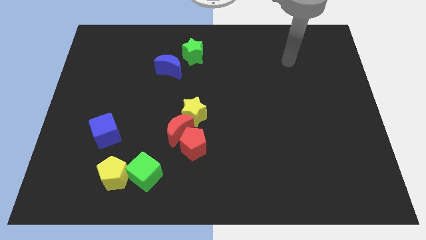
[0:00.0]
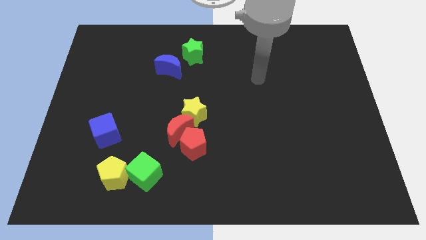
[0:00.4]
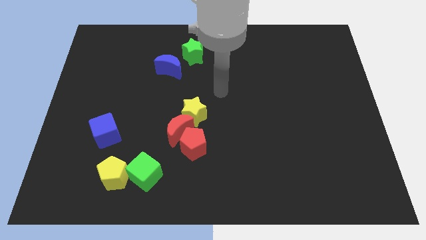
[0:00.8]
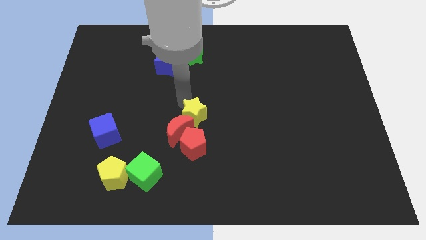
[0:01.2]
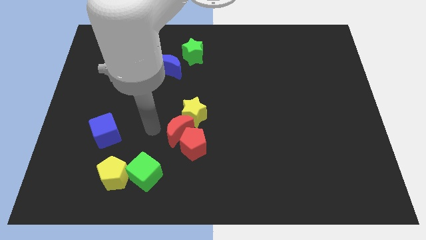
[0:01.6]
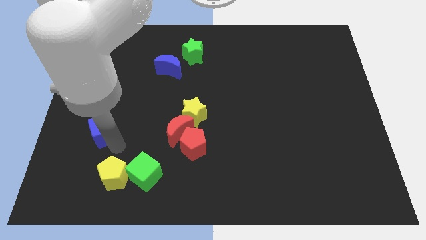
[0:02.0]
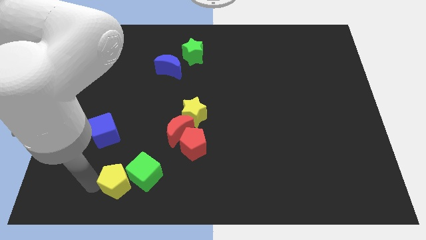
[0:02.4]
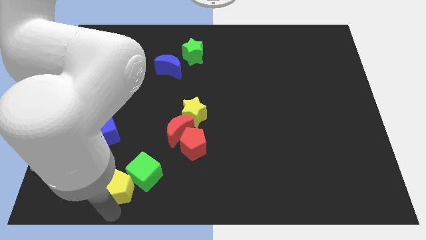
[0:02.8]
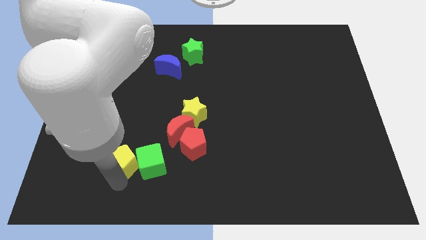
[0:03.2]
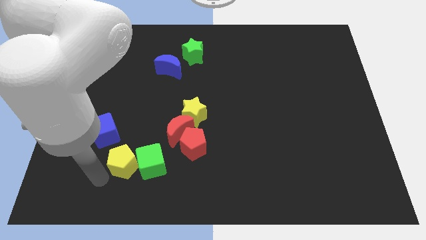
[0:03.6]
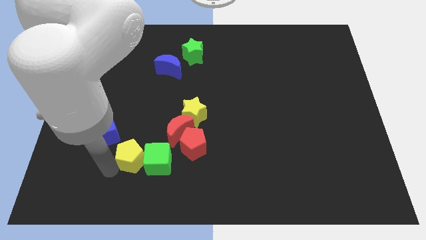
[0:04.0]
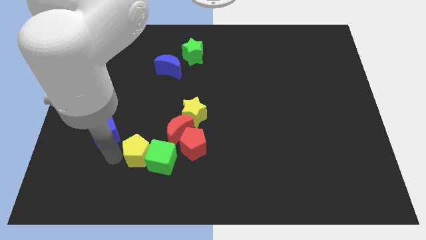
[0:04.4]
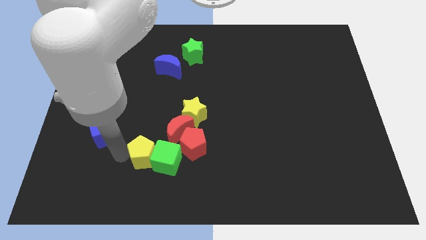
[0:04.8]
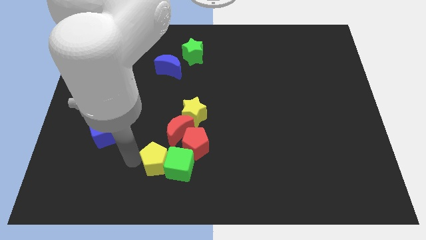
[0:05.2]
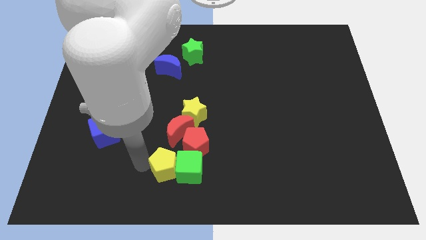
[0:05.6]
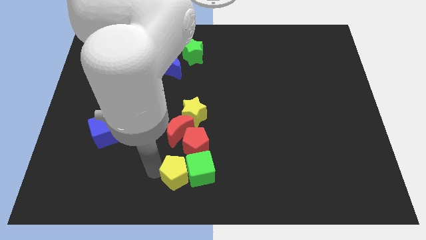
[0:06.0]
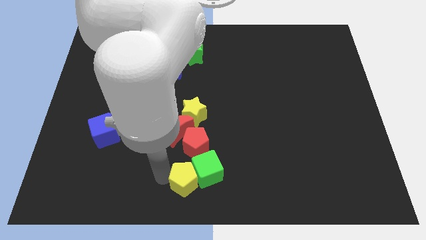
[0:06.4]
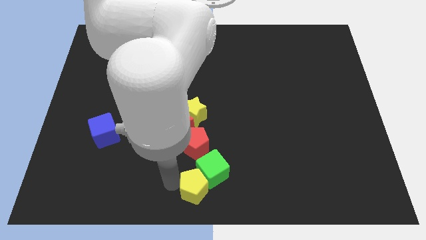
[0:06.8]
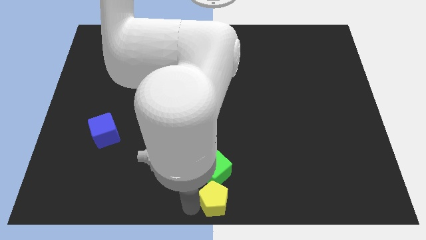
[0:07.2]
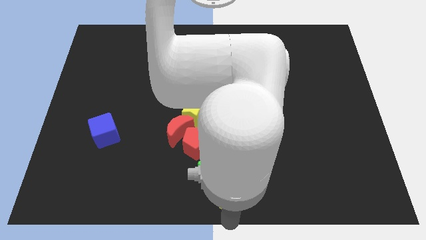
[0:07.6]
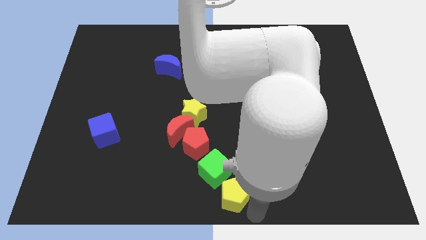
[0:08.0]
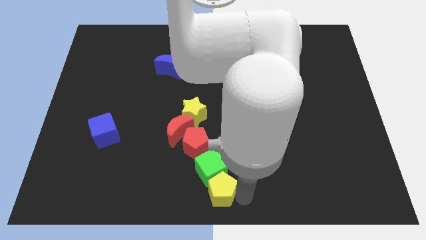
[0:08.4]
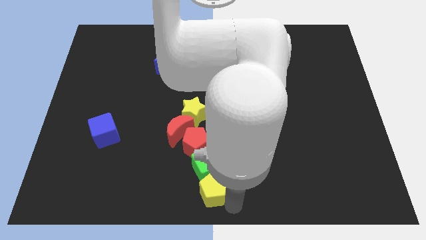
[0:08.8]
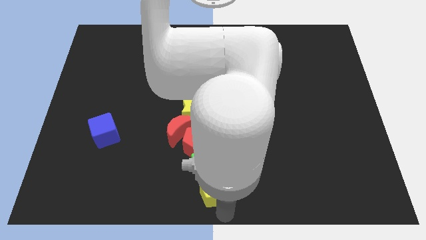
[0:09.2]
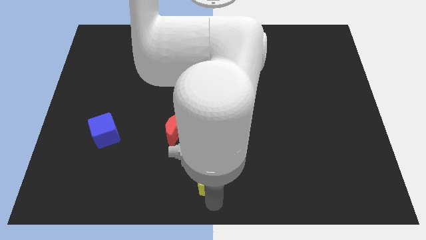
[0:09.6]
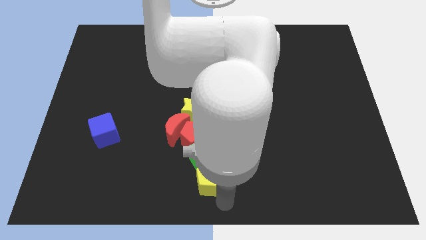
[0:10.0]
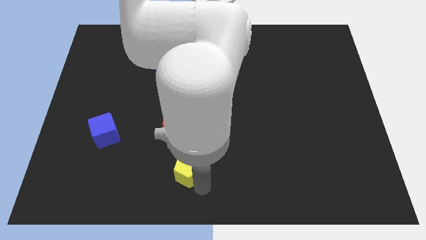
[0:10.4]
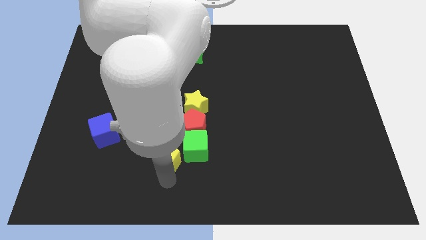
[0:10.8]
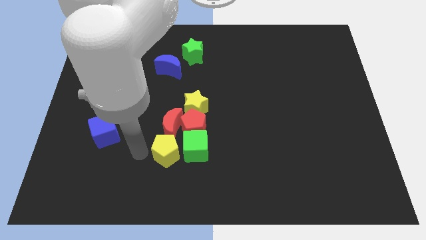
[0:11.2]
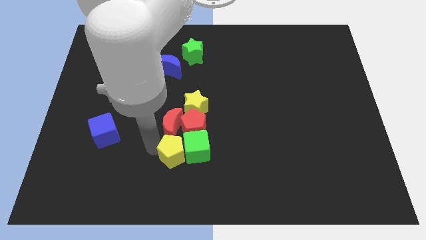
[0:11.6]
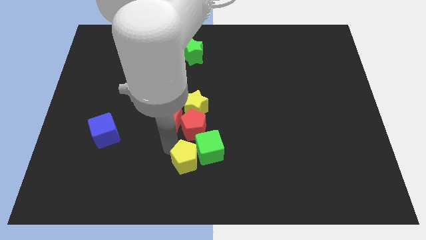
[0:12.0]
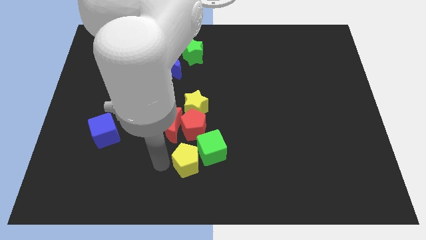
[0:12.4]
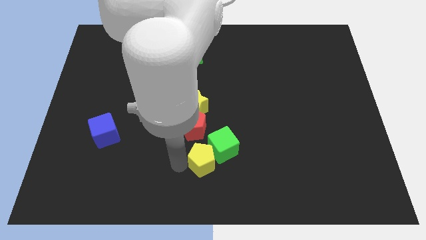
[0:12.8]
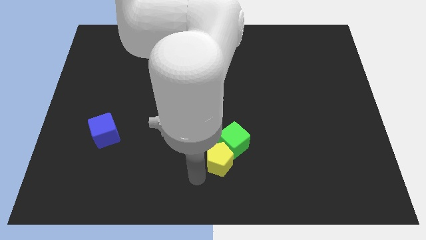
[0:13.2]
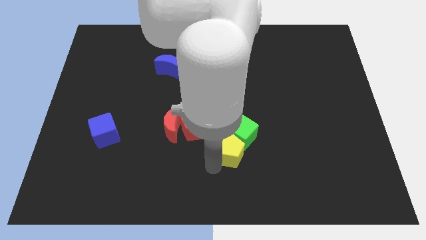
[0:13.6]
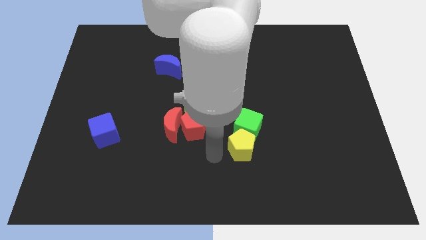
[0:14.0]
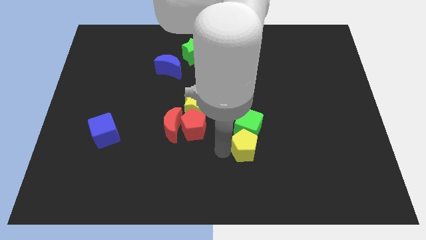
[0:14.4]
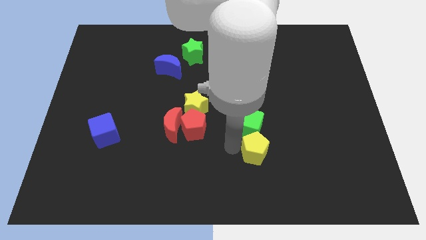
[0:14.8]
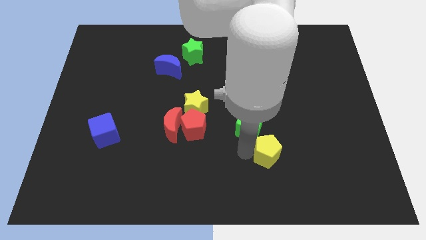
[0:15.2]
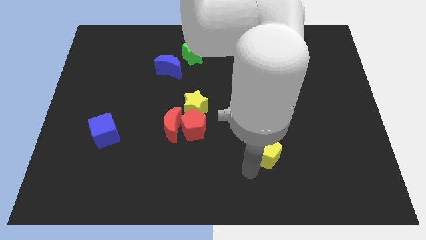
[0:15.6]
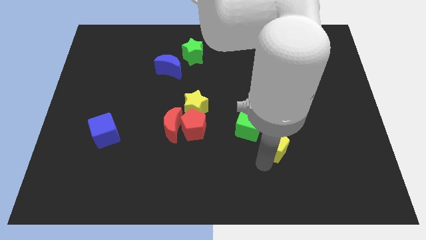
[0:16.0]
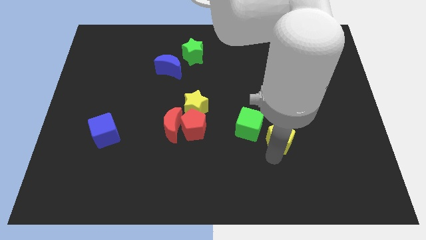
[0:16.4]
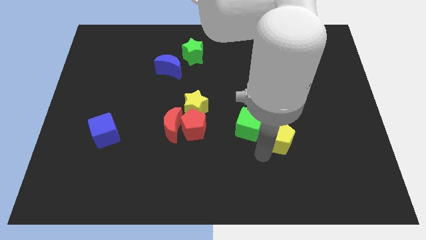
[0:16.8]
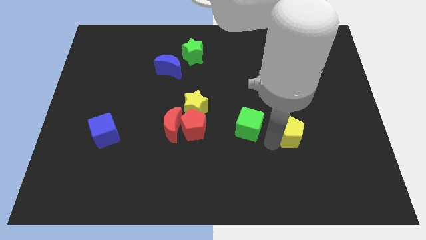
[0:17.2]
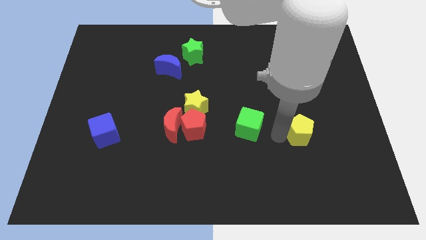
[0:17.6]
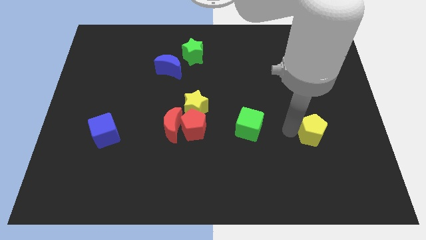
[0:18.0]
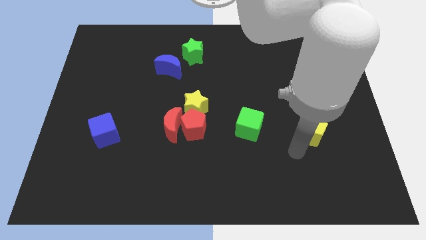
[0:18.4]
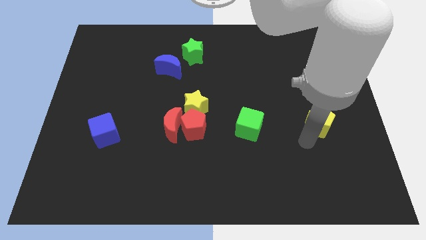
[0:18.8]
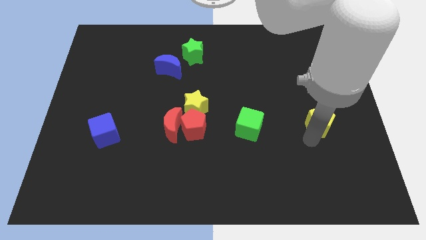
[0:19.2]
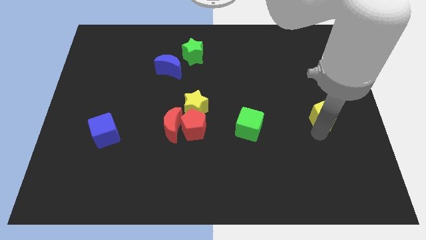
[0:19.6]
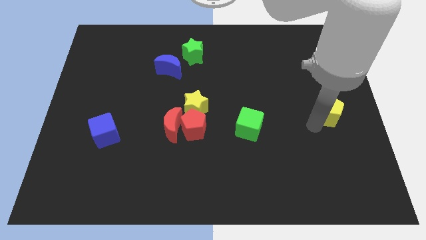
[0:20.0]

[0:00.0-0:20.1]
slide the yellow pentagon to the right side of the board
